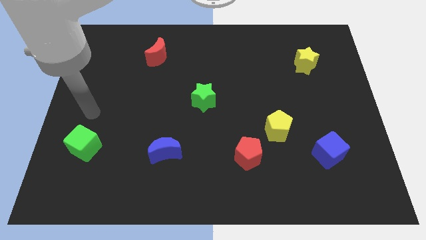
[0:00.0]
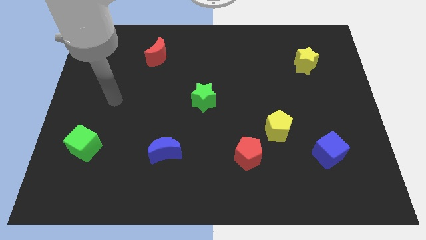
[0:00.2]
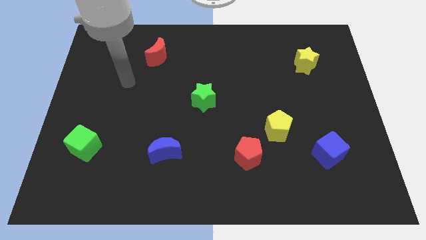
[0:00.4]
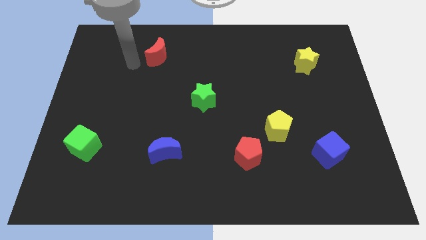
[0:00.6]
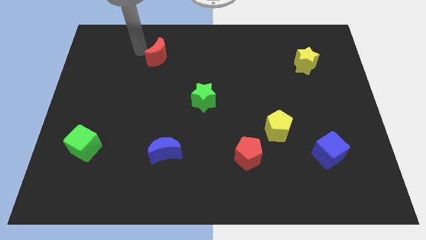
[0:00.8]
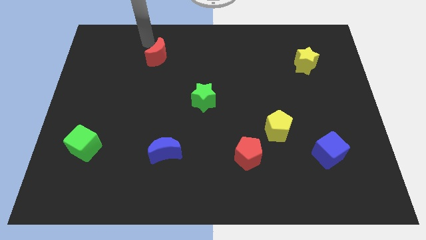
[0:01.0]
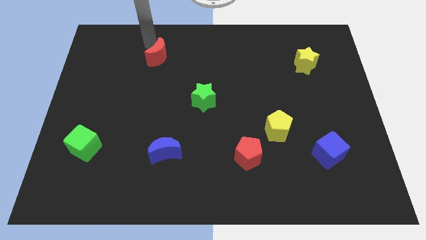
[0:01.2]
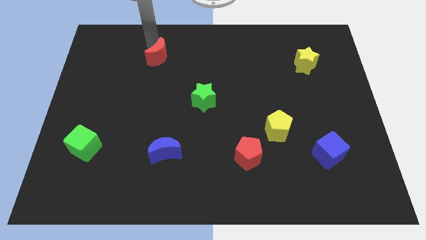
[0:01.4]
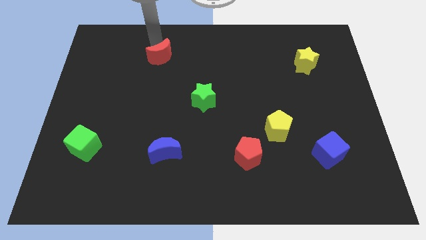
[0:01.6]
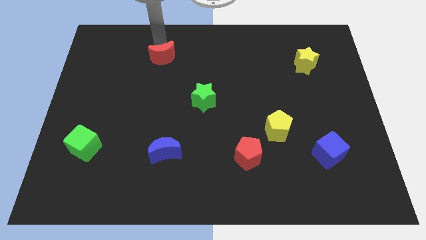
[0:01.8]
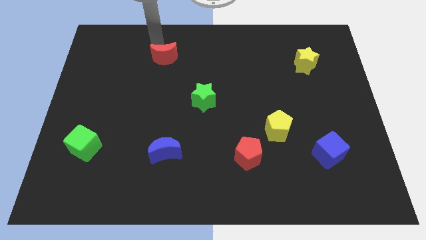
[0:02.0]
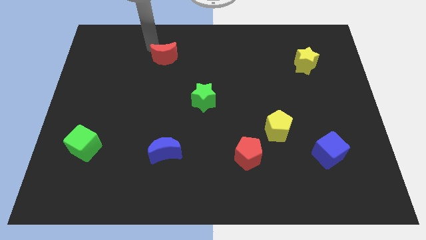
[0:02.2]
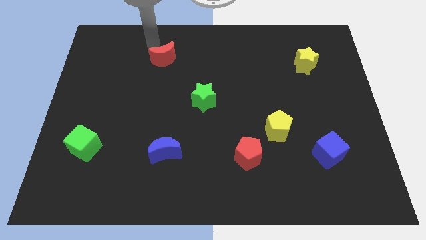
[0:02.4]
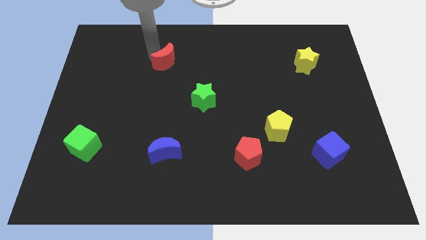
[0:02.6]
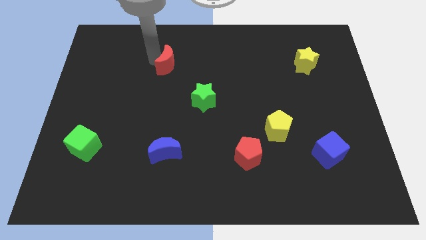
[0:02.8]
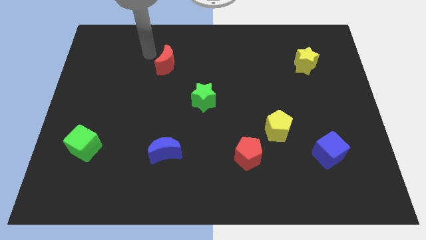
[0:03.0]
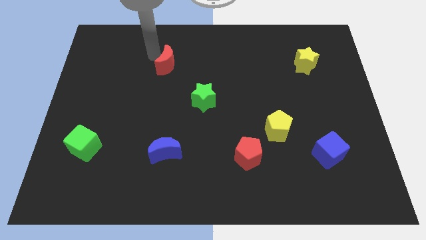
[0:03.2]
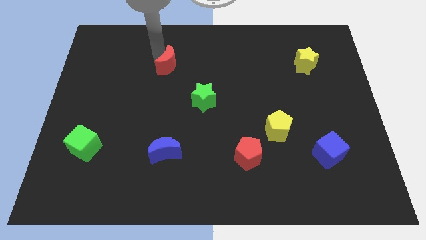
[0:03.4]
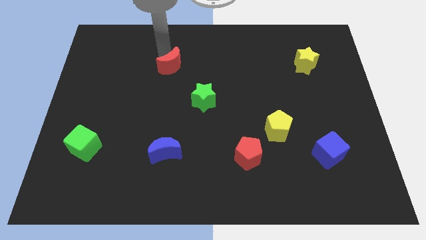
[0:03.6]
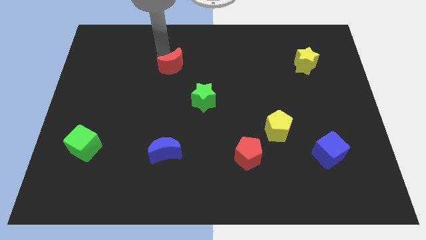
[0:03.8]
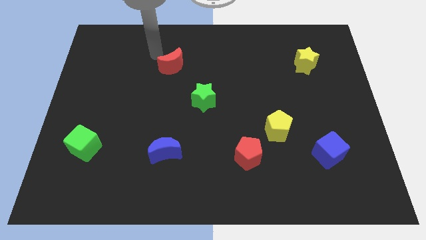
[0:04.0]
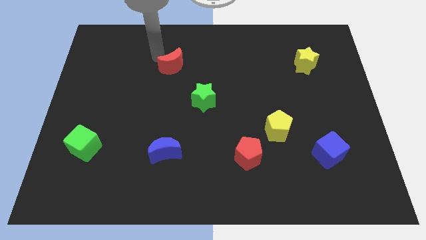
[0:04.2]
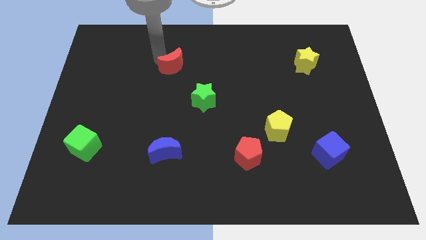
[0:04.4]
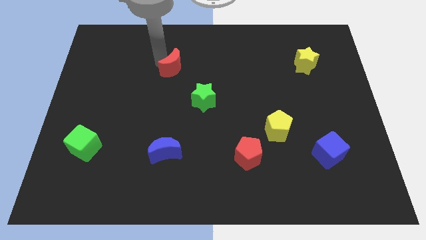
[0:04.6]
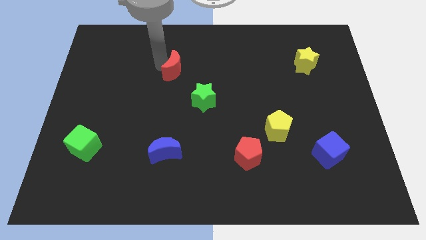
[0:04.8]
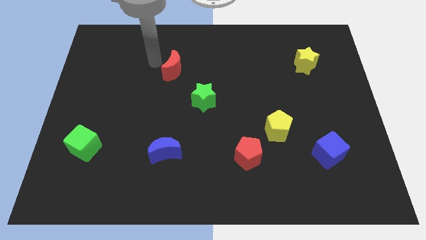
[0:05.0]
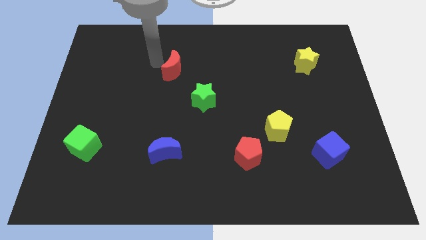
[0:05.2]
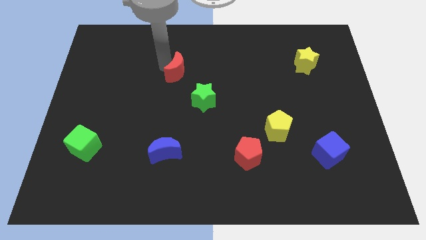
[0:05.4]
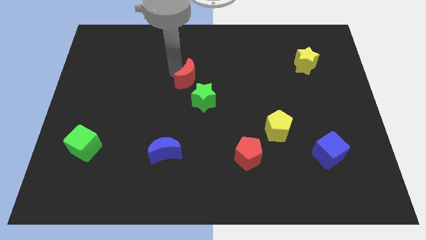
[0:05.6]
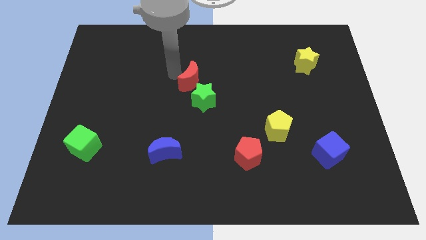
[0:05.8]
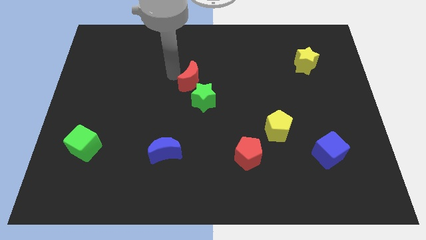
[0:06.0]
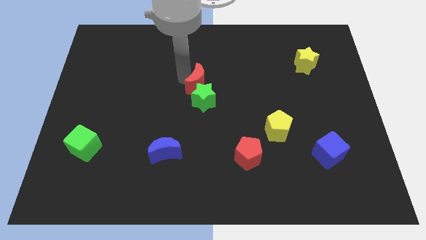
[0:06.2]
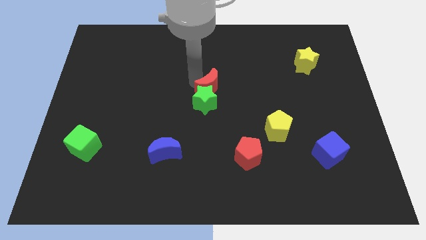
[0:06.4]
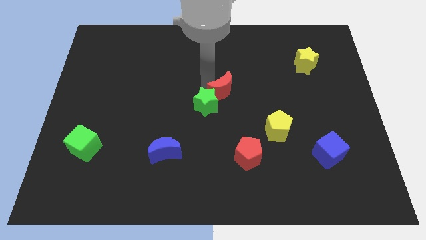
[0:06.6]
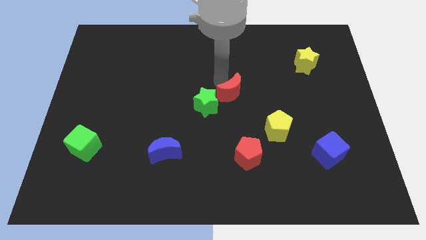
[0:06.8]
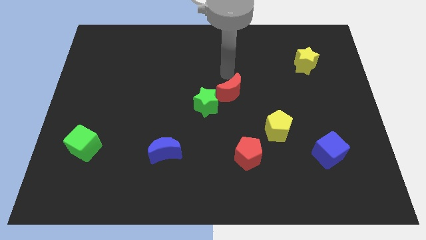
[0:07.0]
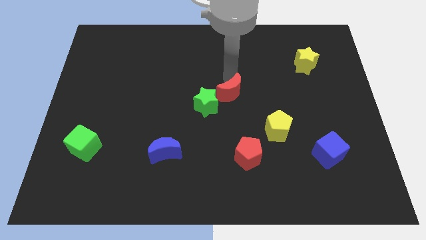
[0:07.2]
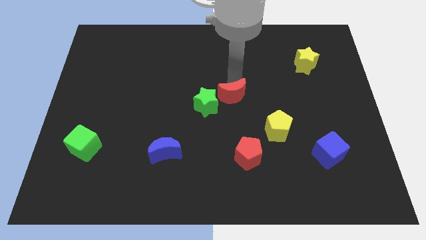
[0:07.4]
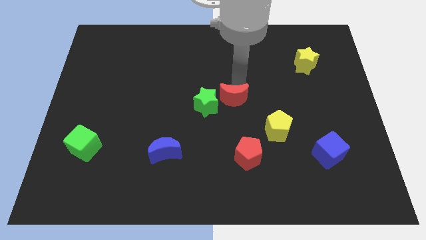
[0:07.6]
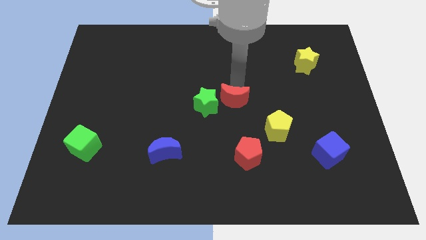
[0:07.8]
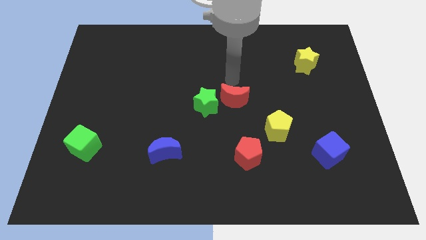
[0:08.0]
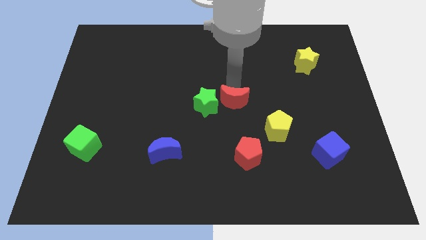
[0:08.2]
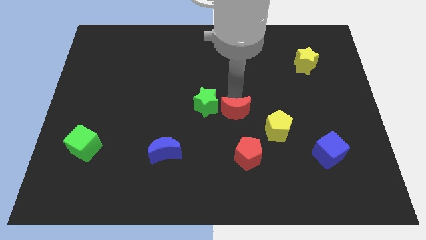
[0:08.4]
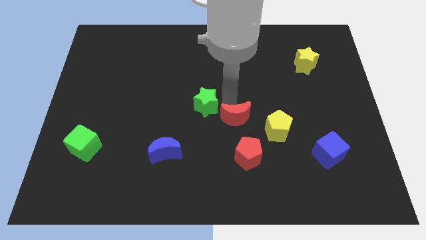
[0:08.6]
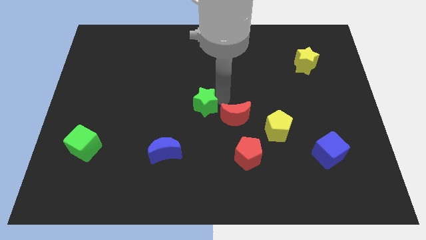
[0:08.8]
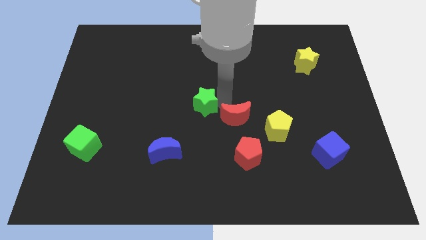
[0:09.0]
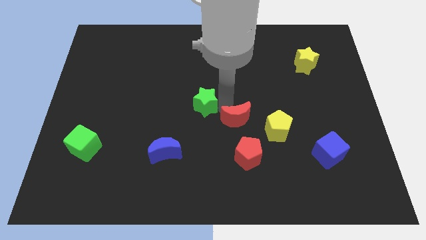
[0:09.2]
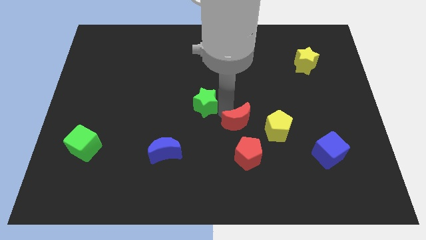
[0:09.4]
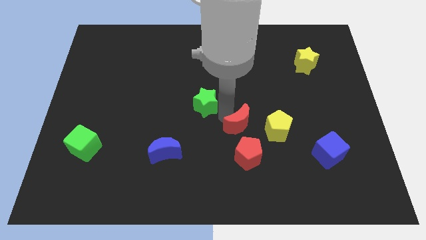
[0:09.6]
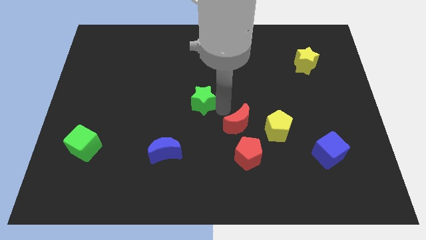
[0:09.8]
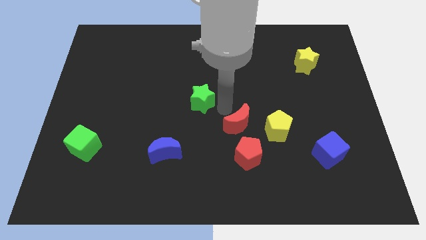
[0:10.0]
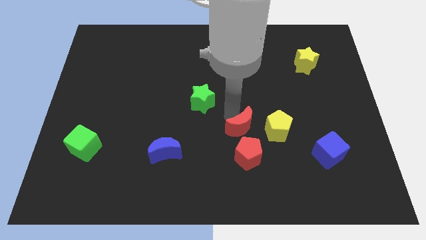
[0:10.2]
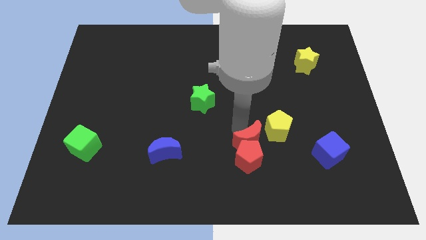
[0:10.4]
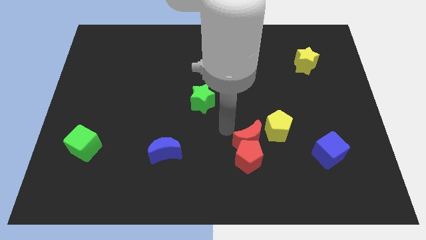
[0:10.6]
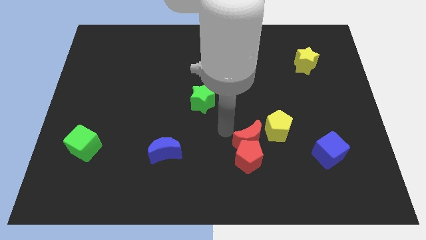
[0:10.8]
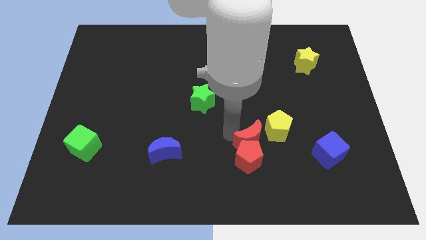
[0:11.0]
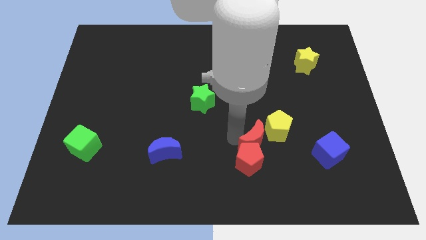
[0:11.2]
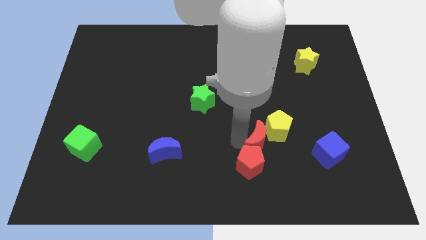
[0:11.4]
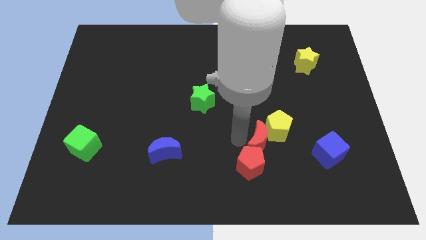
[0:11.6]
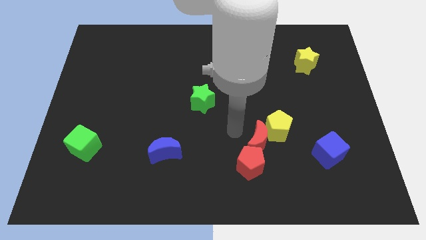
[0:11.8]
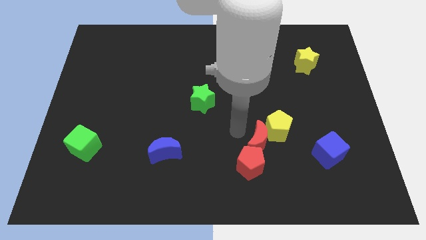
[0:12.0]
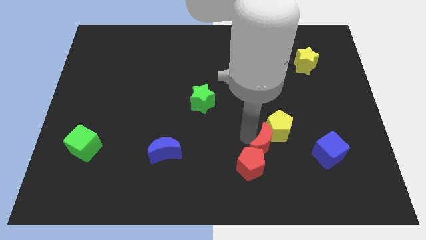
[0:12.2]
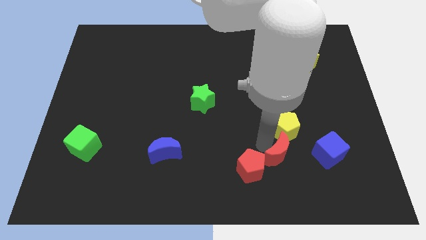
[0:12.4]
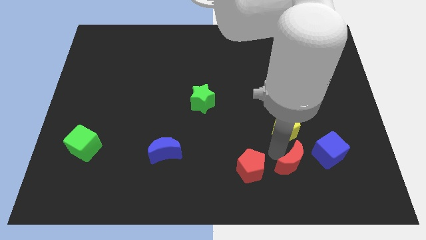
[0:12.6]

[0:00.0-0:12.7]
push the red moon diagonally down and to the left of the blue cube
